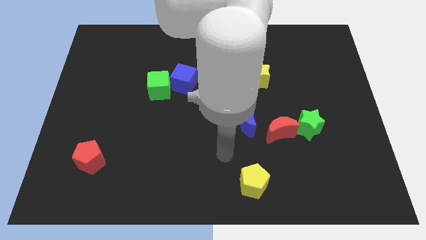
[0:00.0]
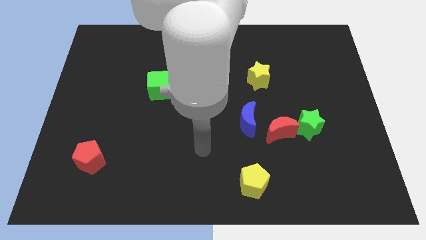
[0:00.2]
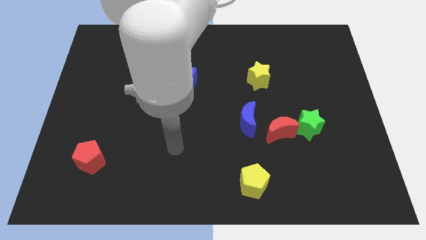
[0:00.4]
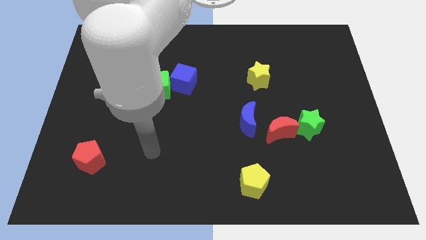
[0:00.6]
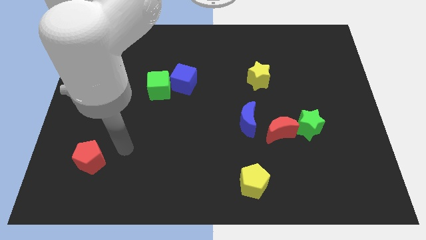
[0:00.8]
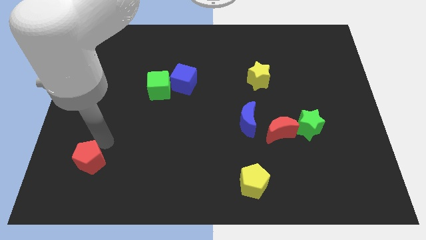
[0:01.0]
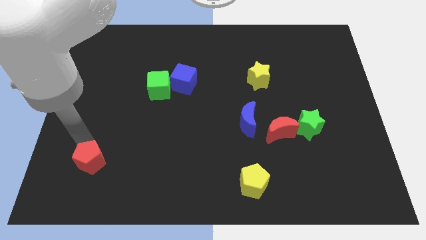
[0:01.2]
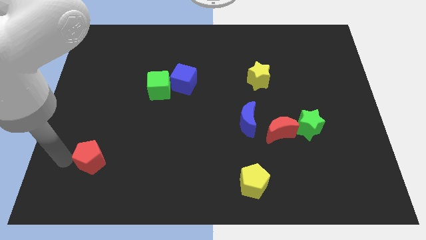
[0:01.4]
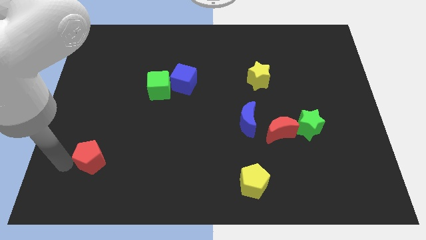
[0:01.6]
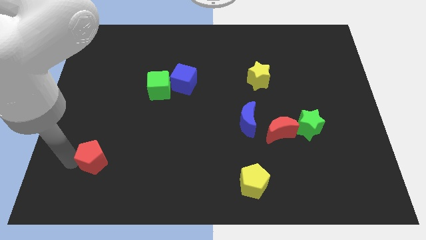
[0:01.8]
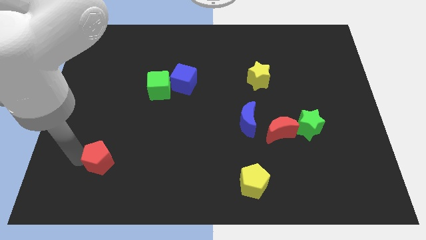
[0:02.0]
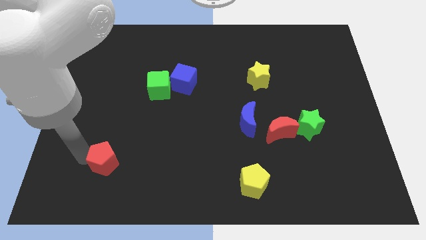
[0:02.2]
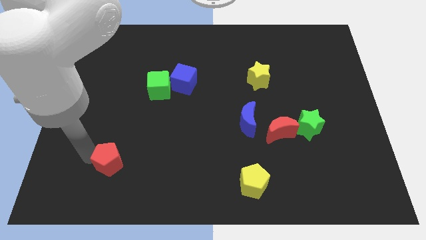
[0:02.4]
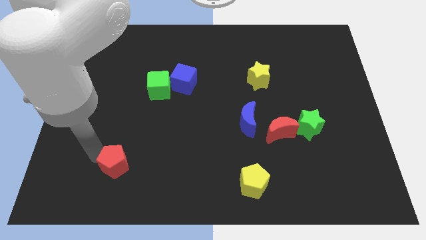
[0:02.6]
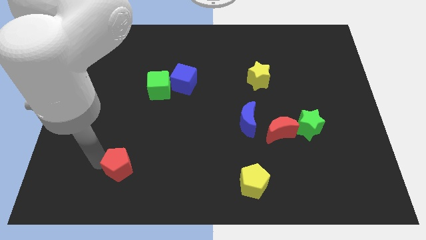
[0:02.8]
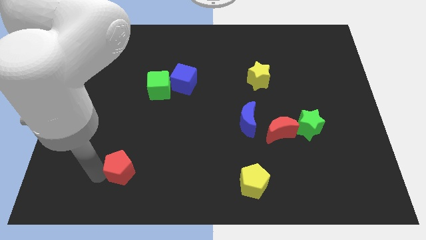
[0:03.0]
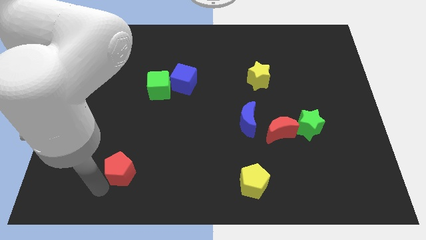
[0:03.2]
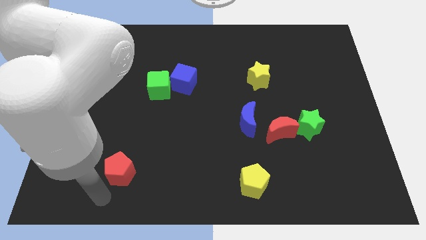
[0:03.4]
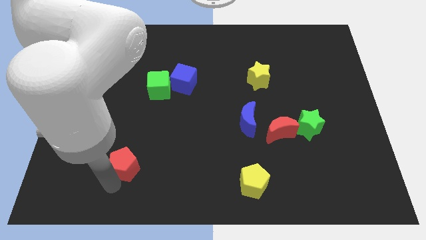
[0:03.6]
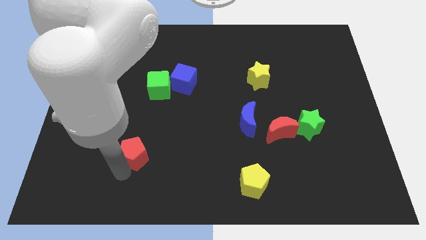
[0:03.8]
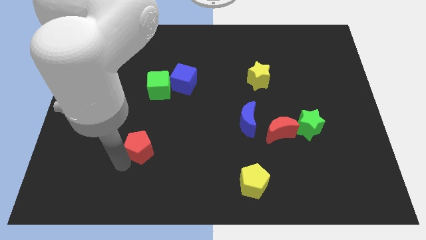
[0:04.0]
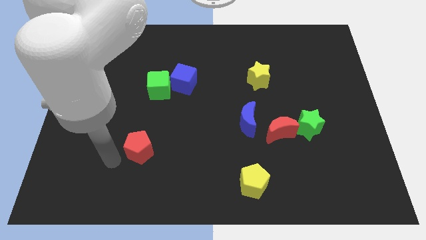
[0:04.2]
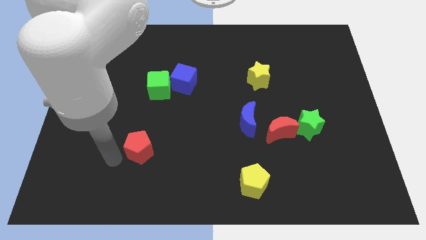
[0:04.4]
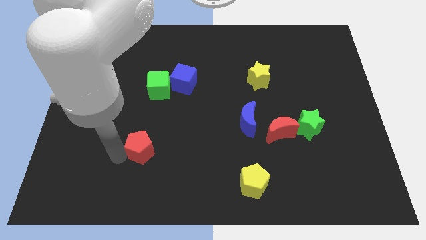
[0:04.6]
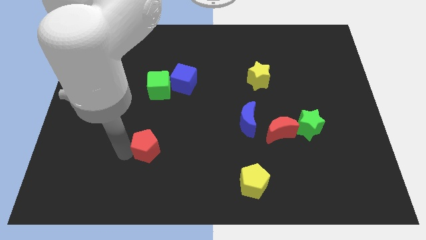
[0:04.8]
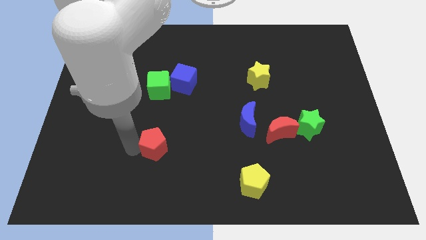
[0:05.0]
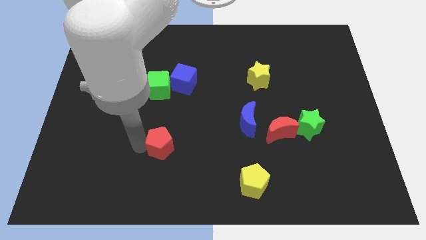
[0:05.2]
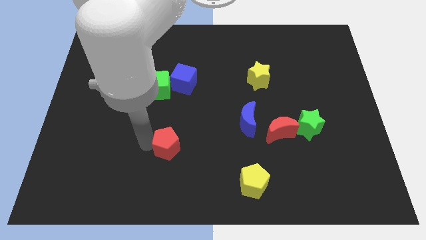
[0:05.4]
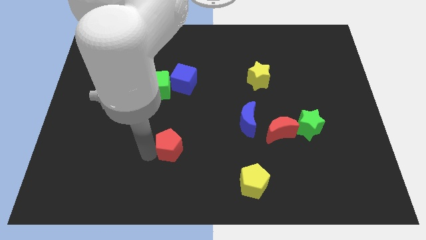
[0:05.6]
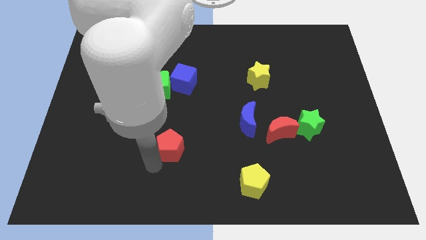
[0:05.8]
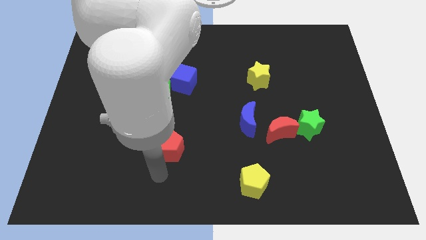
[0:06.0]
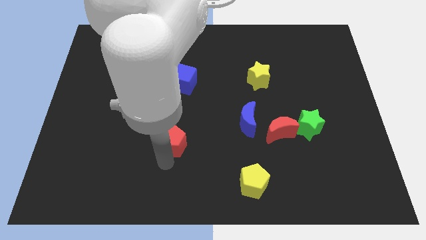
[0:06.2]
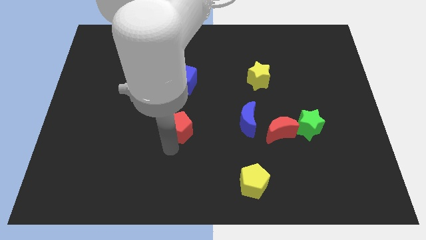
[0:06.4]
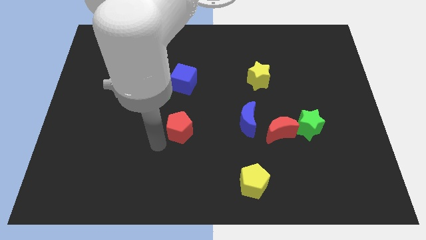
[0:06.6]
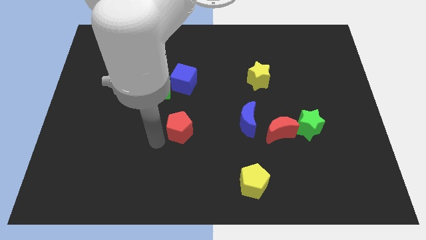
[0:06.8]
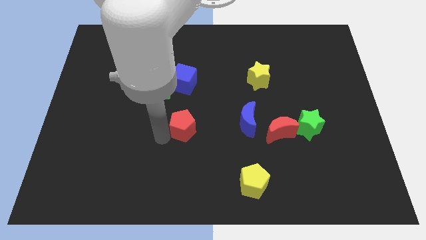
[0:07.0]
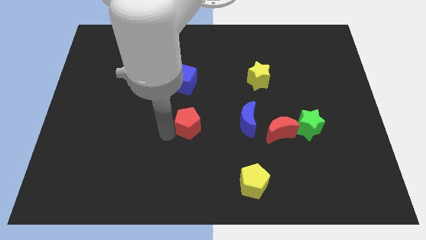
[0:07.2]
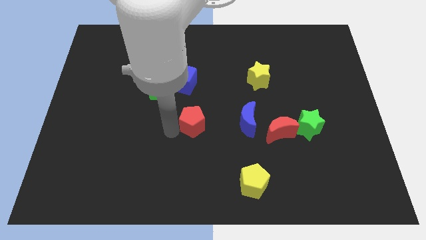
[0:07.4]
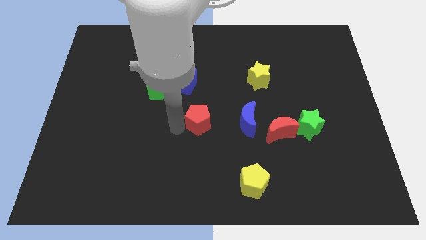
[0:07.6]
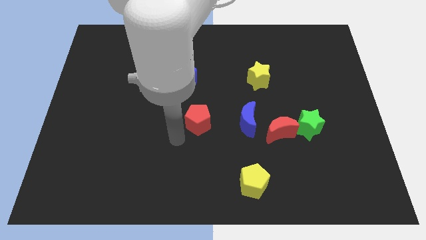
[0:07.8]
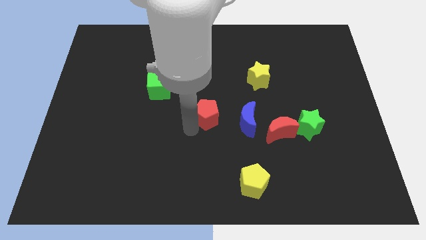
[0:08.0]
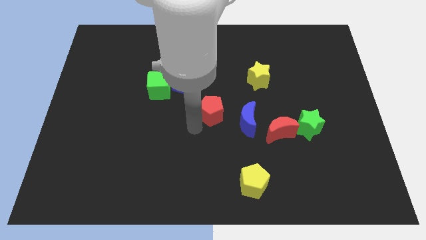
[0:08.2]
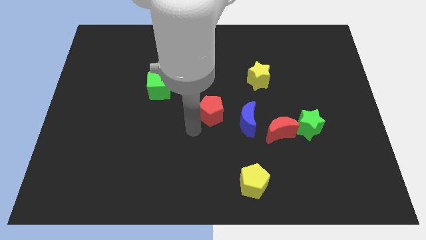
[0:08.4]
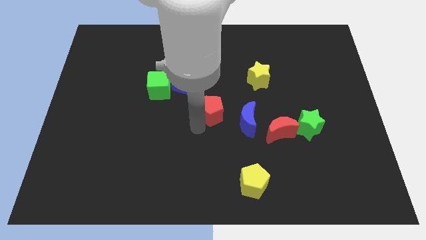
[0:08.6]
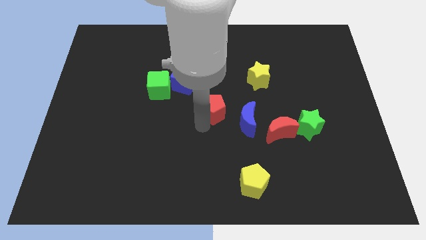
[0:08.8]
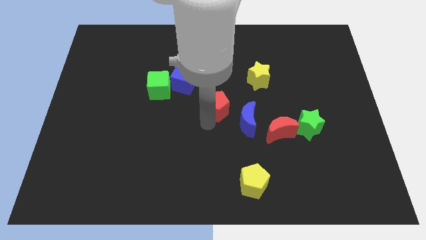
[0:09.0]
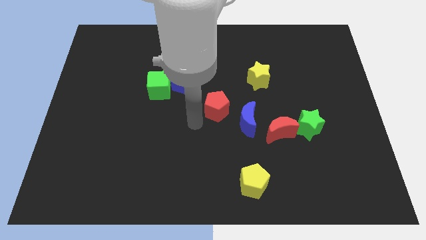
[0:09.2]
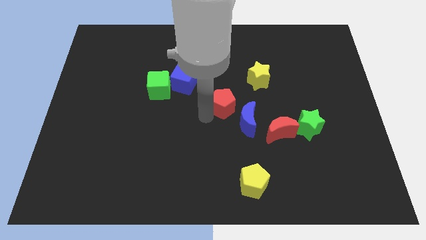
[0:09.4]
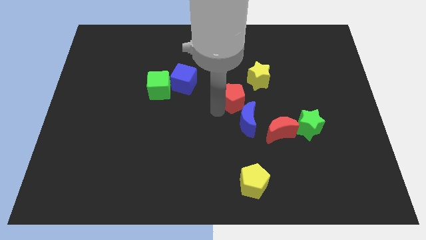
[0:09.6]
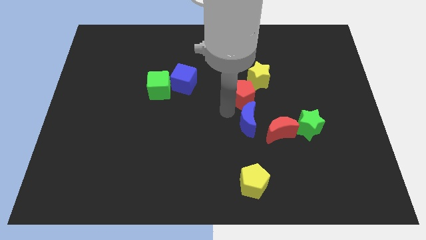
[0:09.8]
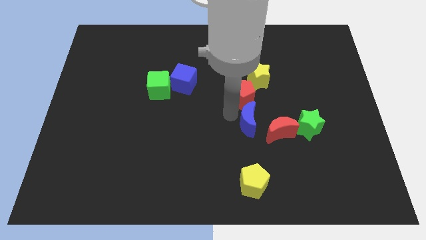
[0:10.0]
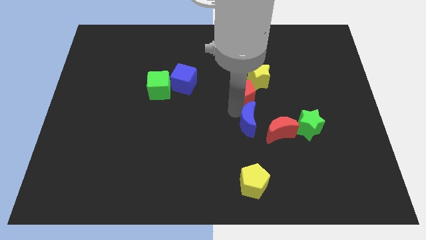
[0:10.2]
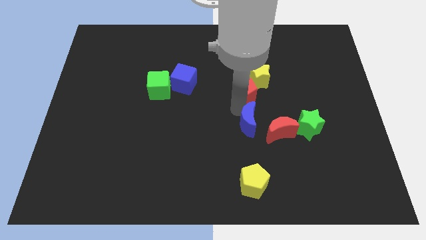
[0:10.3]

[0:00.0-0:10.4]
slide the red pentagon next to the yellow star
